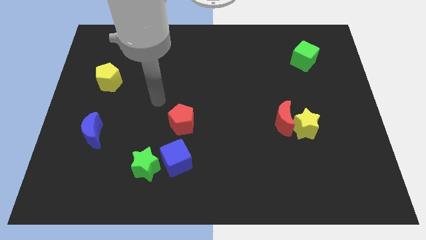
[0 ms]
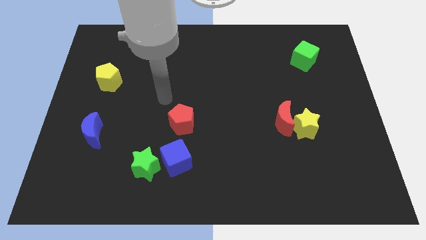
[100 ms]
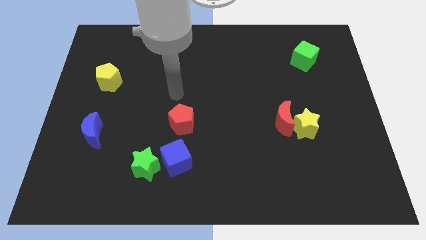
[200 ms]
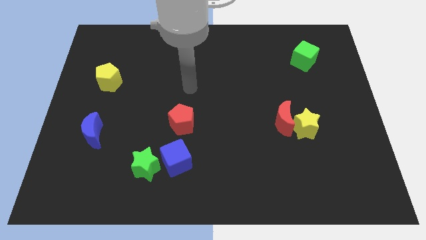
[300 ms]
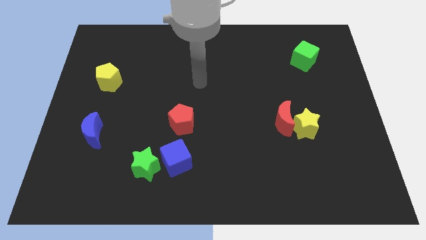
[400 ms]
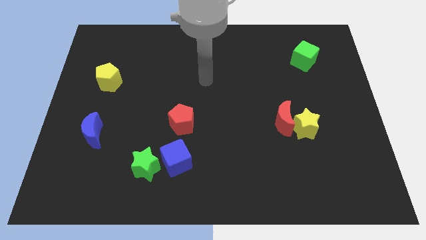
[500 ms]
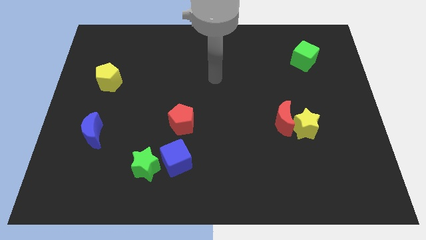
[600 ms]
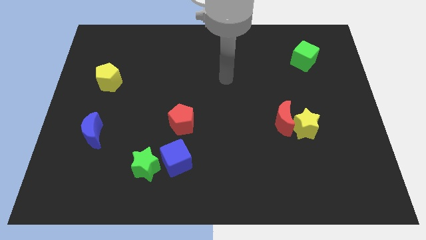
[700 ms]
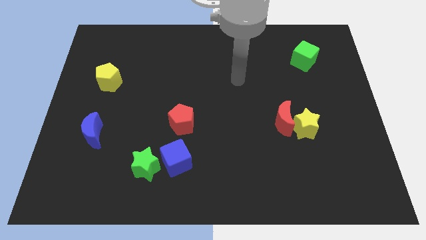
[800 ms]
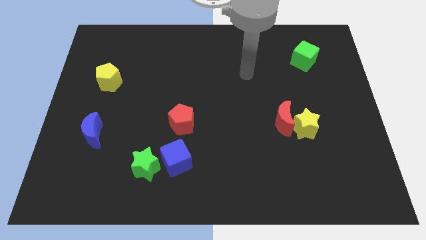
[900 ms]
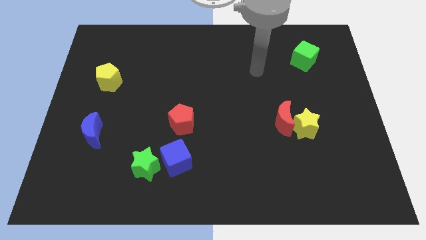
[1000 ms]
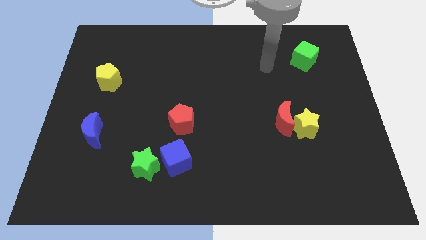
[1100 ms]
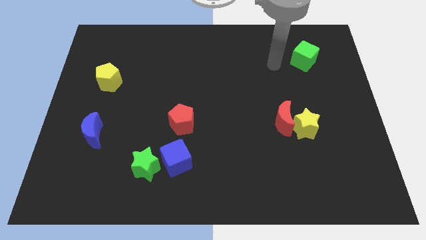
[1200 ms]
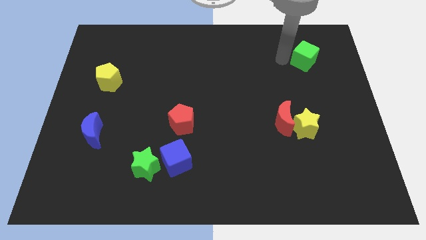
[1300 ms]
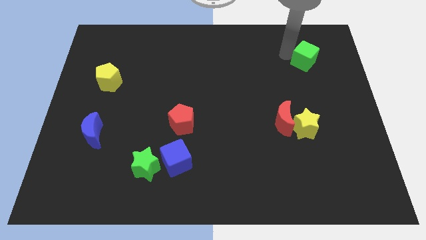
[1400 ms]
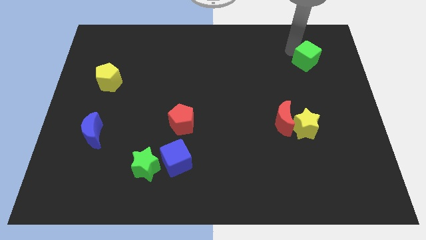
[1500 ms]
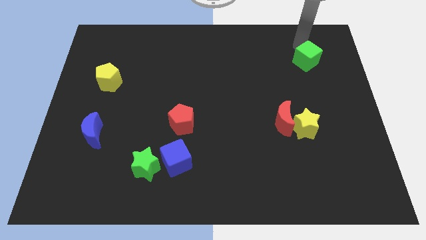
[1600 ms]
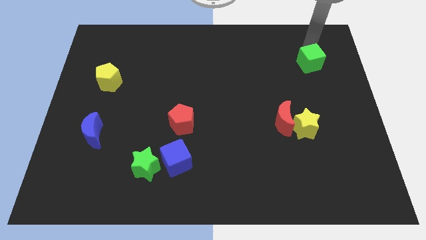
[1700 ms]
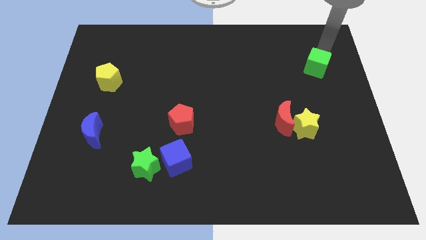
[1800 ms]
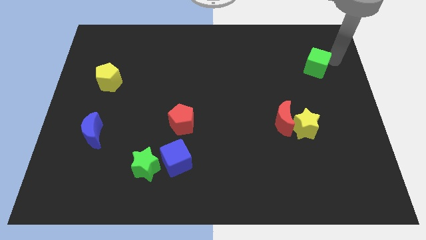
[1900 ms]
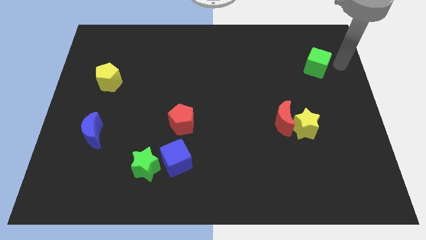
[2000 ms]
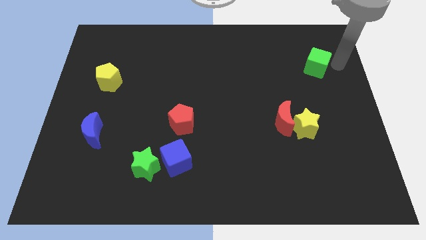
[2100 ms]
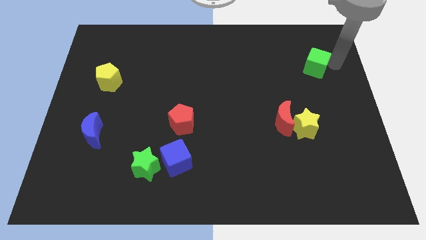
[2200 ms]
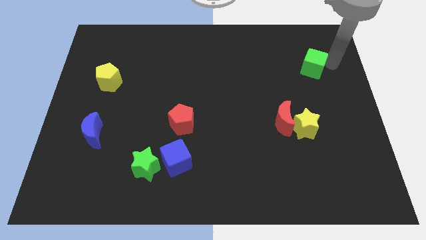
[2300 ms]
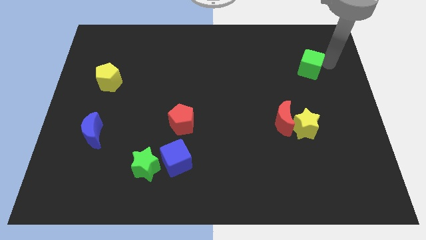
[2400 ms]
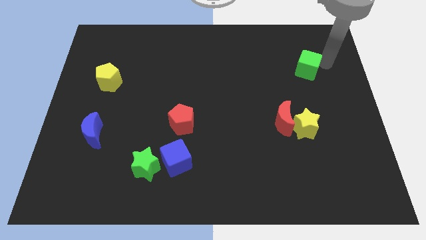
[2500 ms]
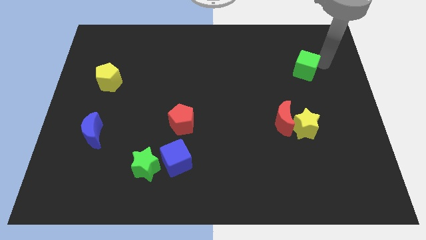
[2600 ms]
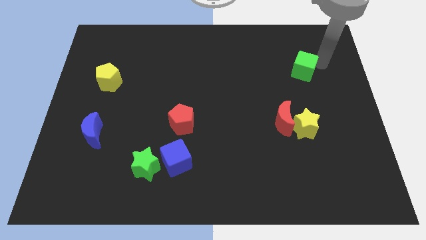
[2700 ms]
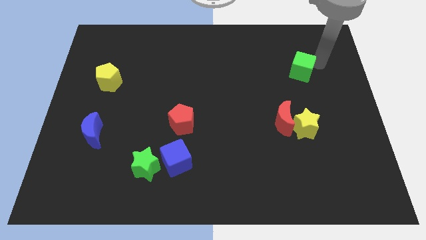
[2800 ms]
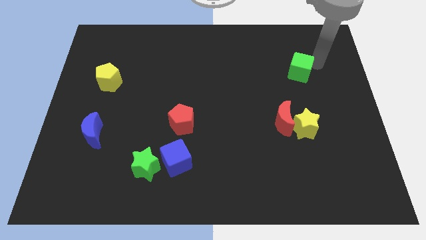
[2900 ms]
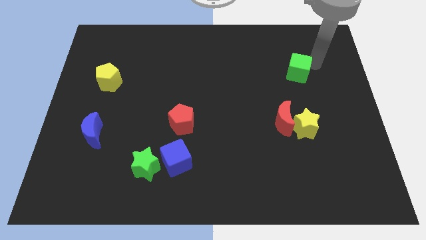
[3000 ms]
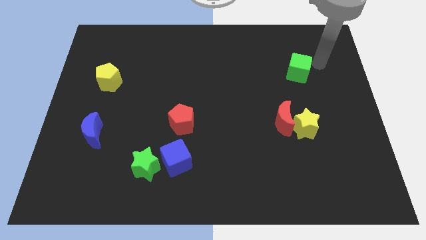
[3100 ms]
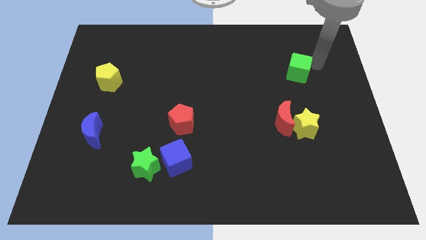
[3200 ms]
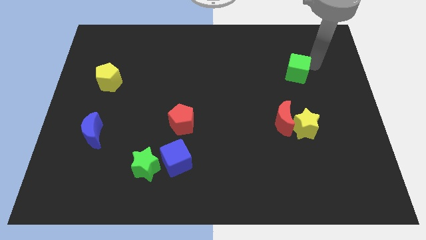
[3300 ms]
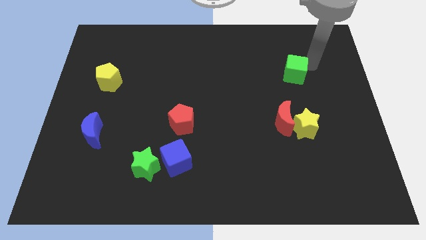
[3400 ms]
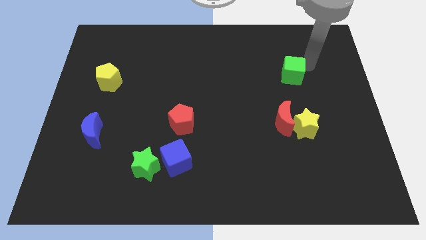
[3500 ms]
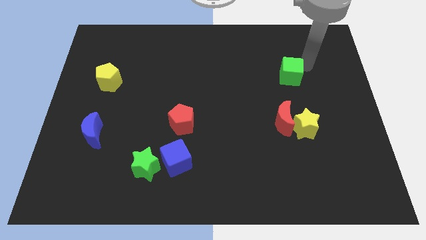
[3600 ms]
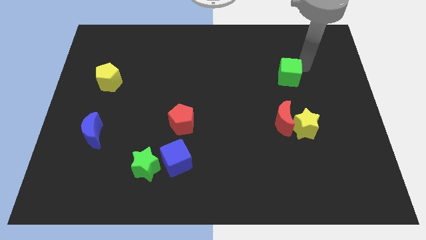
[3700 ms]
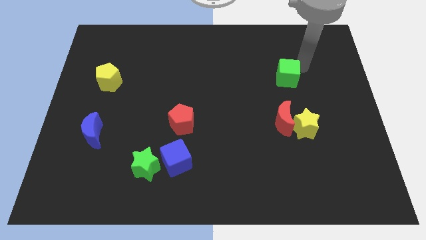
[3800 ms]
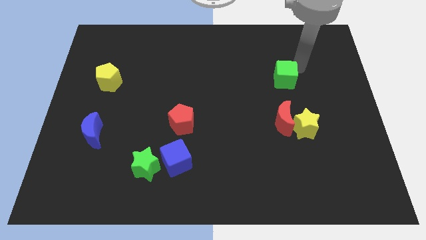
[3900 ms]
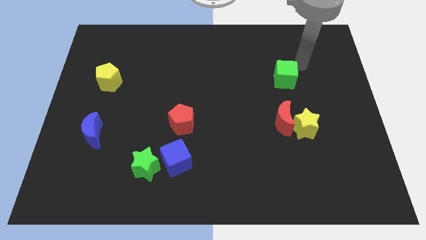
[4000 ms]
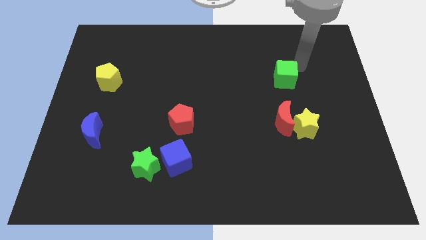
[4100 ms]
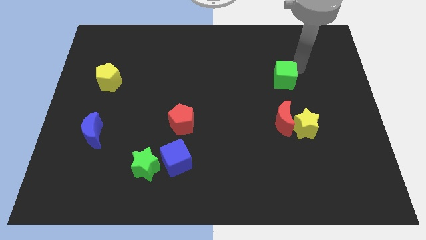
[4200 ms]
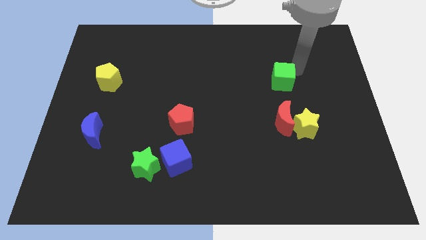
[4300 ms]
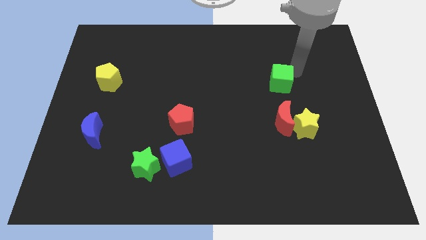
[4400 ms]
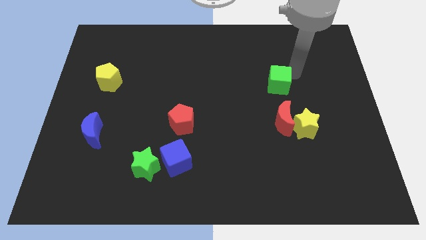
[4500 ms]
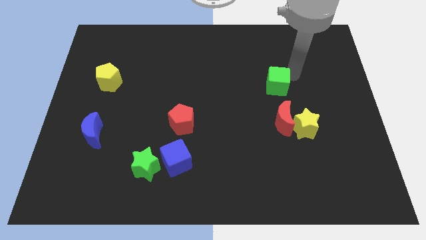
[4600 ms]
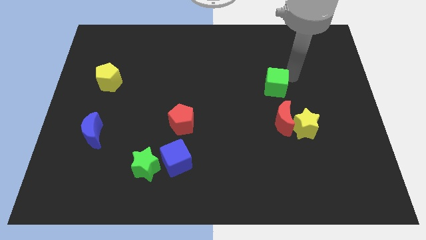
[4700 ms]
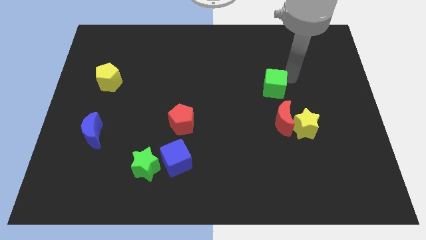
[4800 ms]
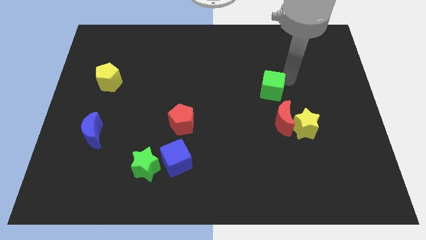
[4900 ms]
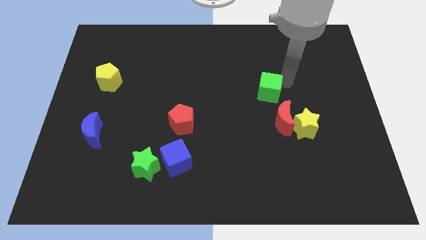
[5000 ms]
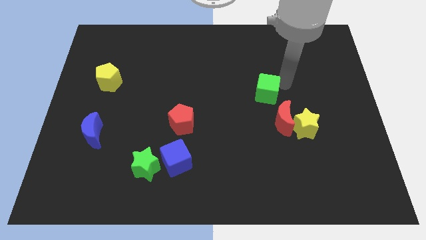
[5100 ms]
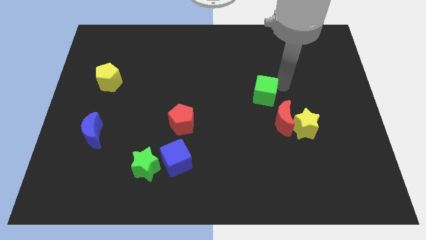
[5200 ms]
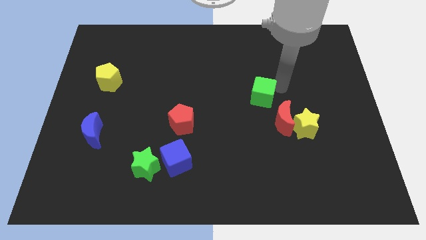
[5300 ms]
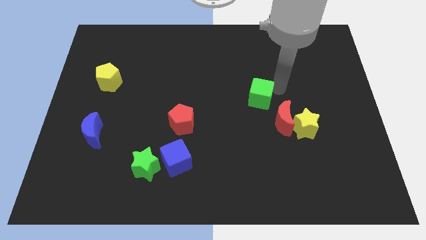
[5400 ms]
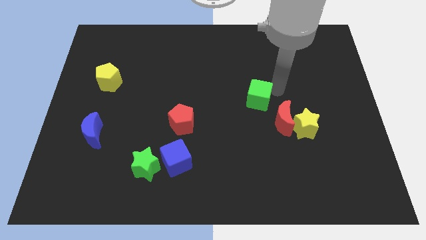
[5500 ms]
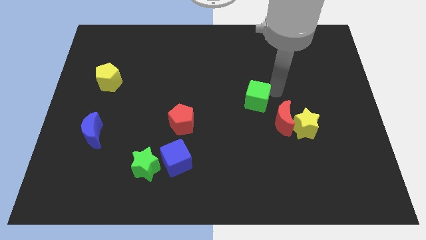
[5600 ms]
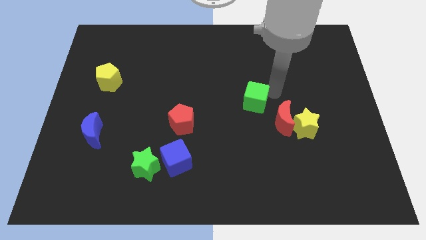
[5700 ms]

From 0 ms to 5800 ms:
push the green cube downwards and then to the left

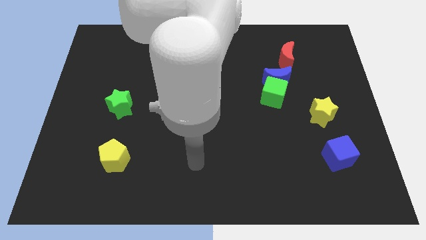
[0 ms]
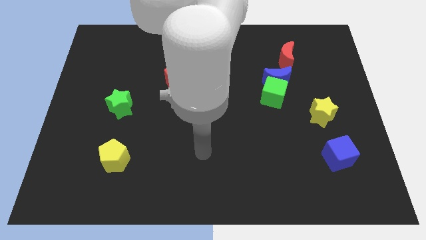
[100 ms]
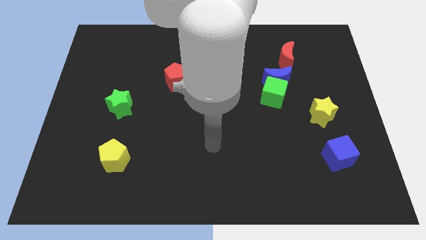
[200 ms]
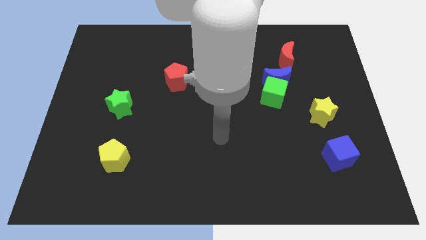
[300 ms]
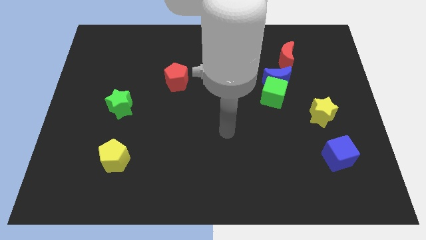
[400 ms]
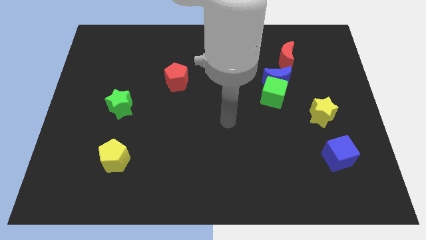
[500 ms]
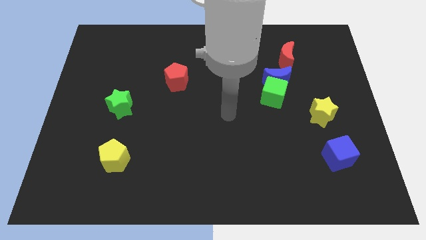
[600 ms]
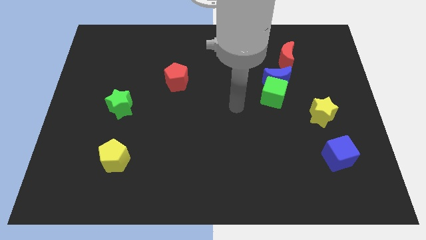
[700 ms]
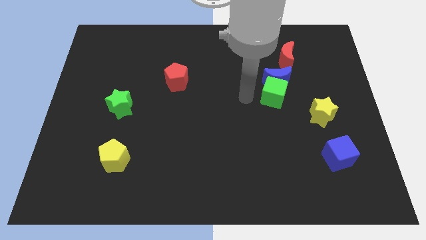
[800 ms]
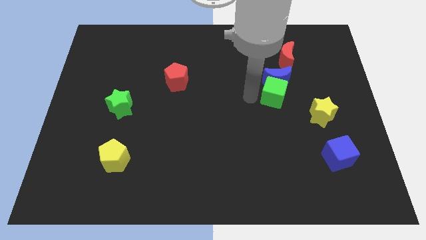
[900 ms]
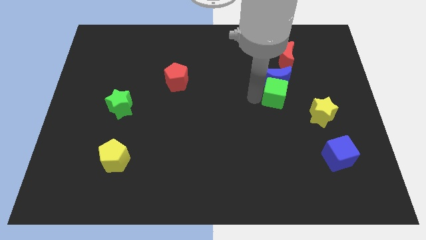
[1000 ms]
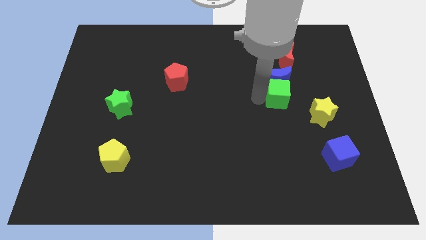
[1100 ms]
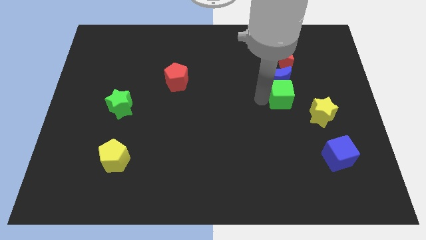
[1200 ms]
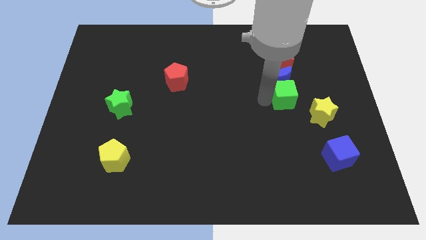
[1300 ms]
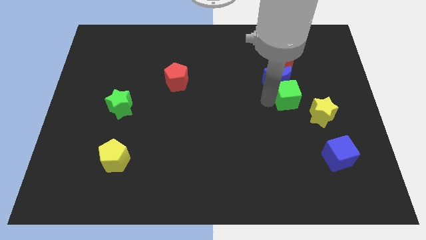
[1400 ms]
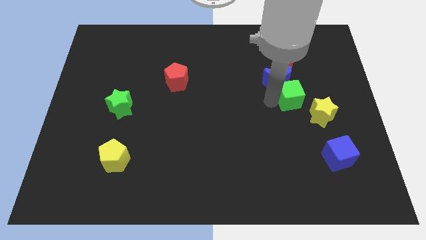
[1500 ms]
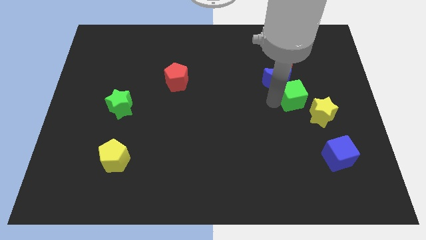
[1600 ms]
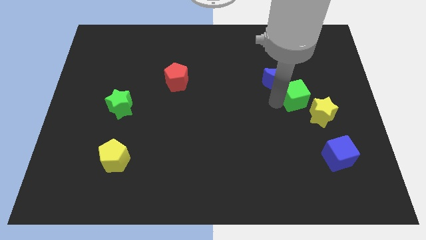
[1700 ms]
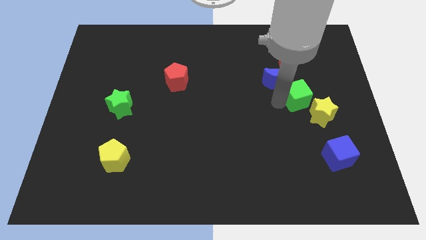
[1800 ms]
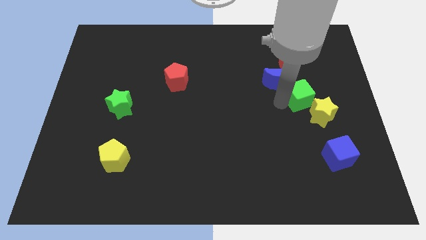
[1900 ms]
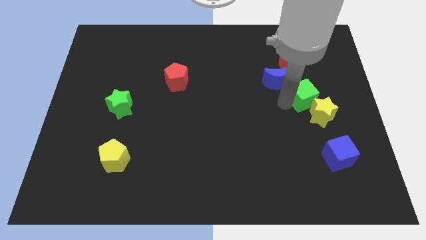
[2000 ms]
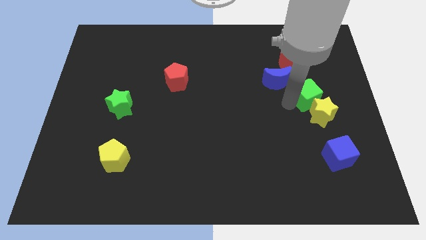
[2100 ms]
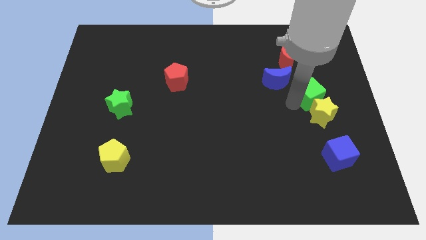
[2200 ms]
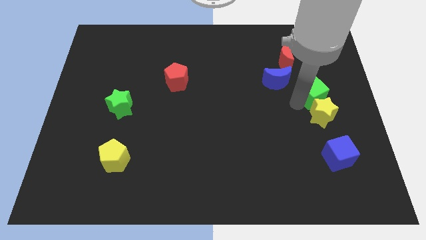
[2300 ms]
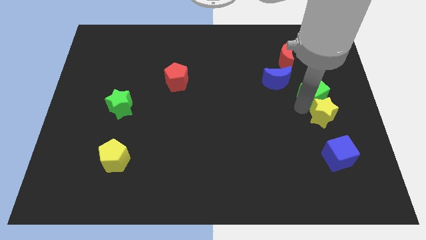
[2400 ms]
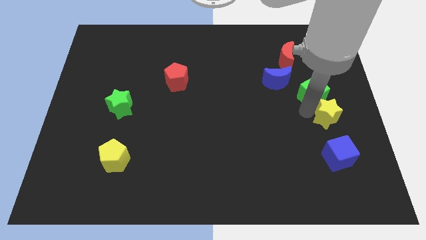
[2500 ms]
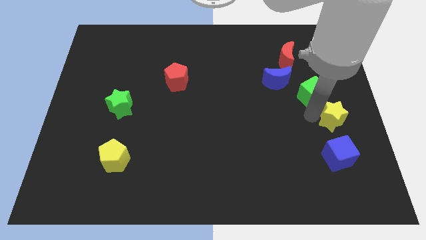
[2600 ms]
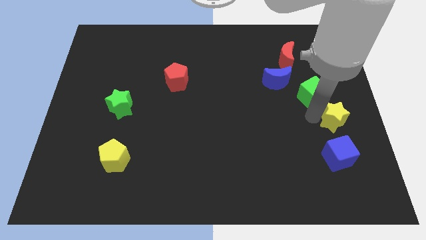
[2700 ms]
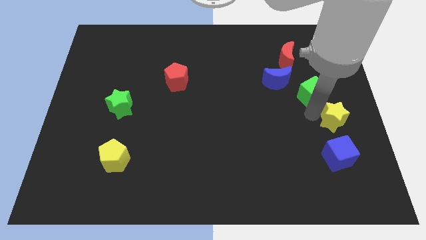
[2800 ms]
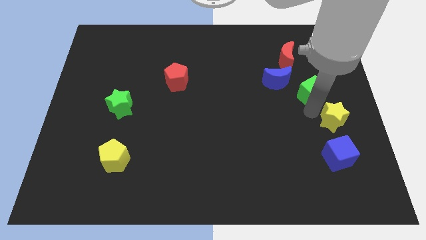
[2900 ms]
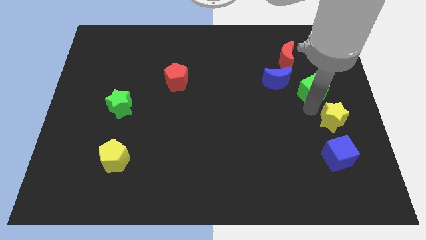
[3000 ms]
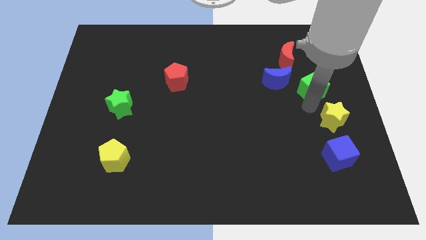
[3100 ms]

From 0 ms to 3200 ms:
move the green cube somewhat upwards and to the right
